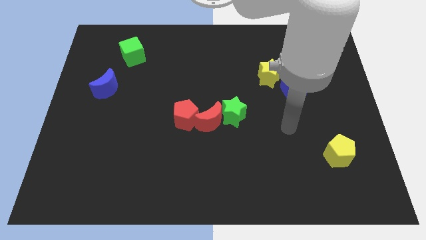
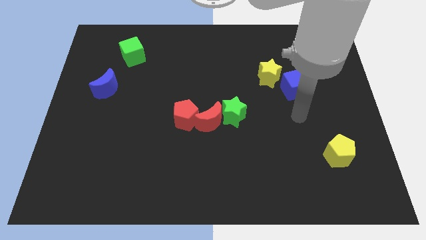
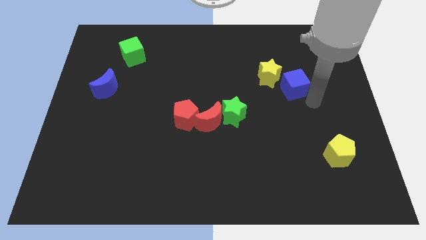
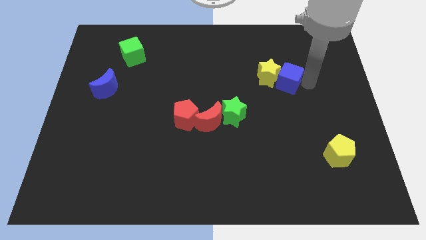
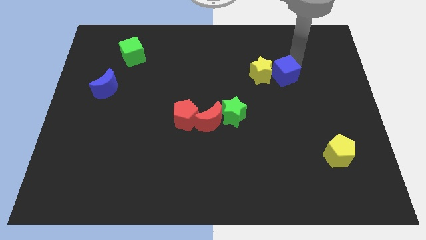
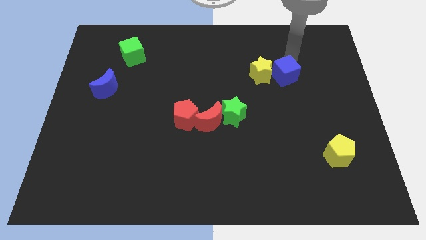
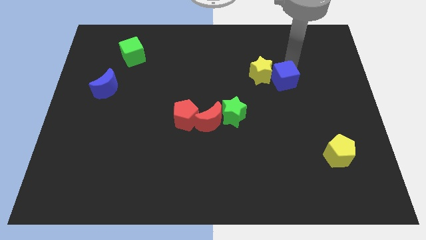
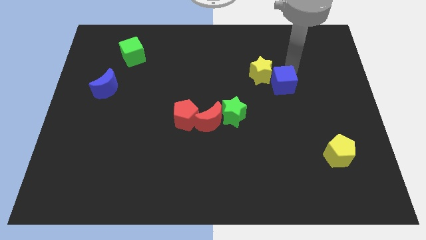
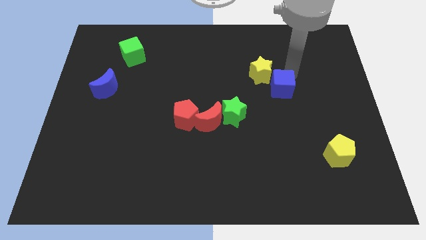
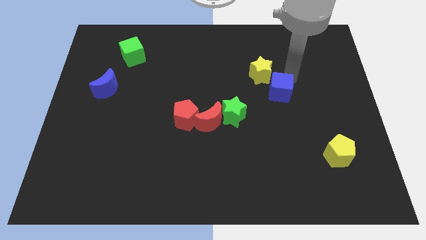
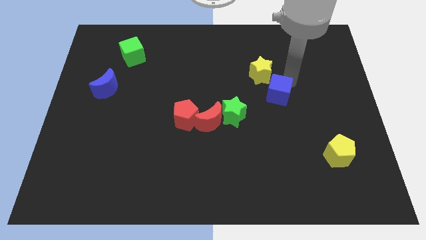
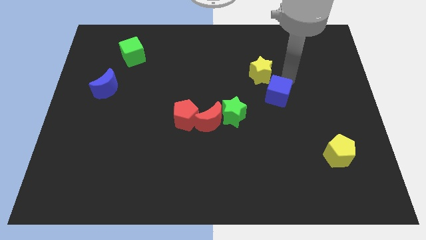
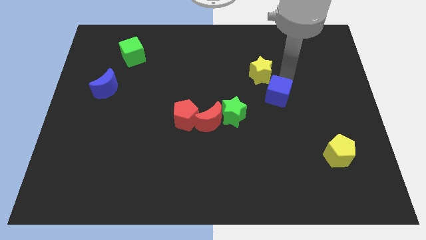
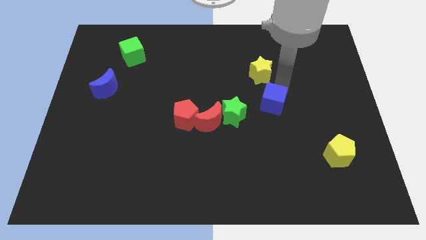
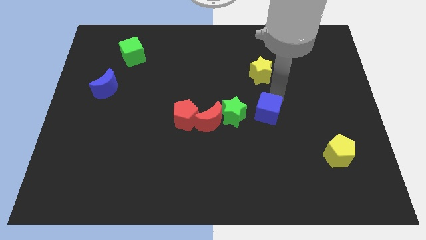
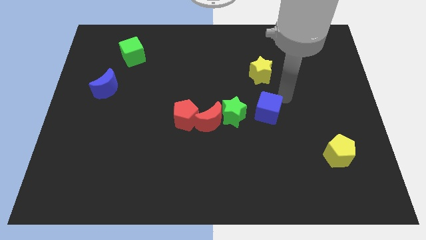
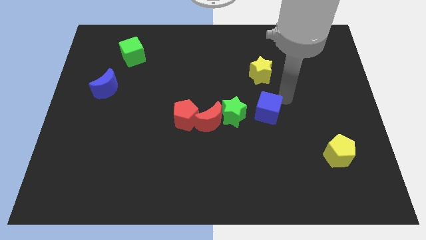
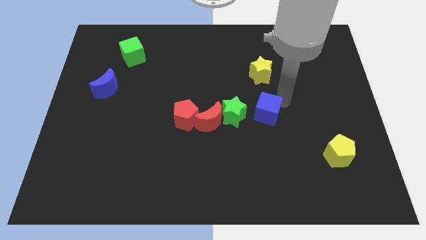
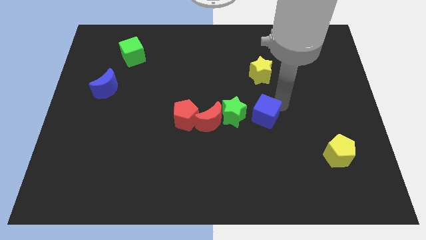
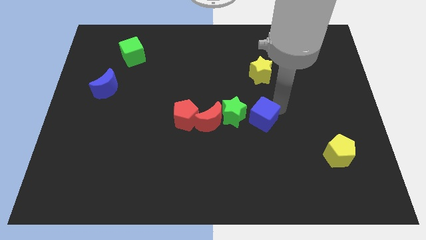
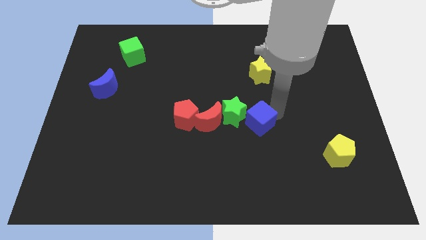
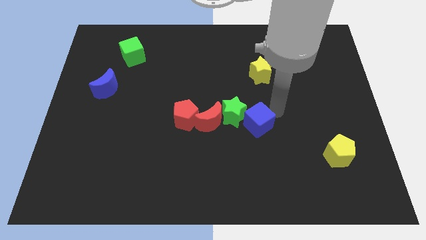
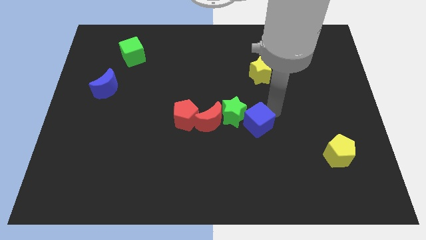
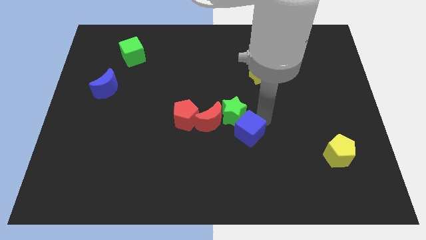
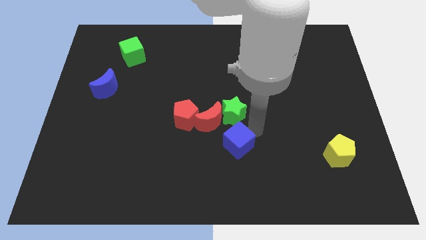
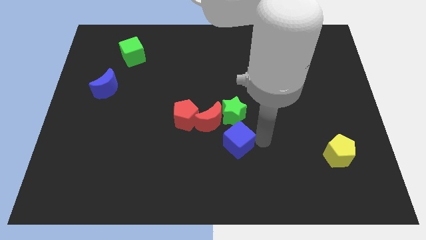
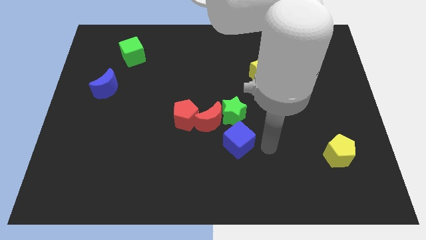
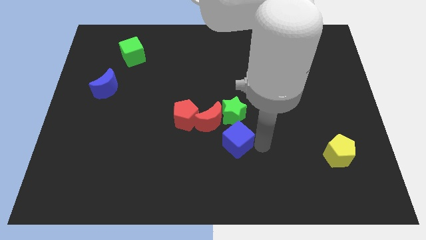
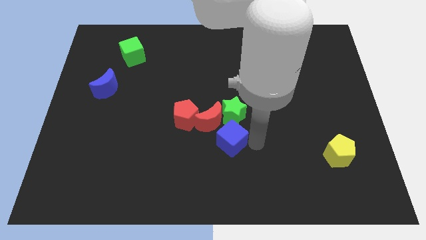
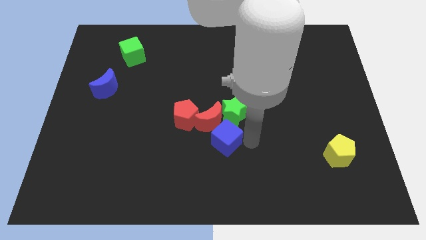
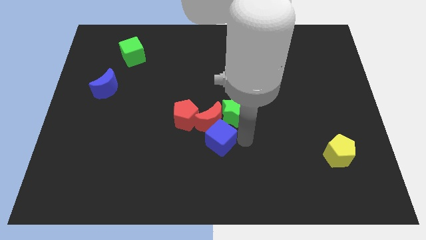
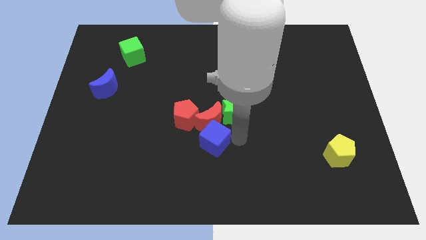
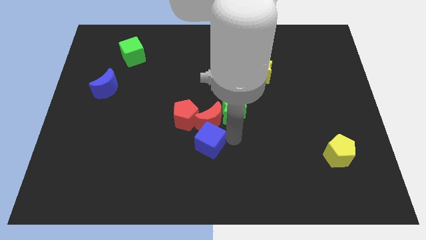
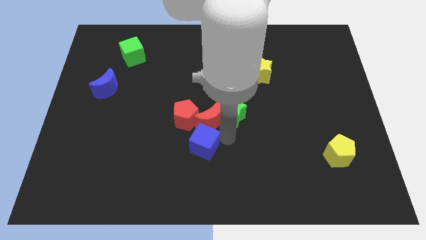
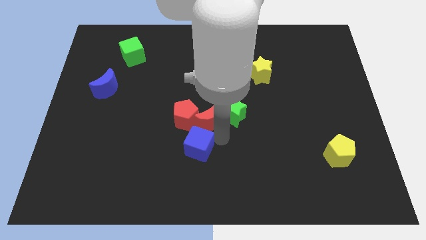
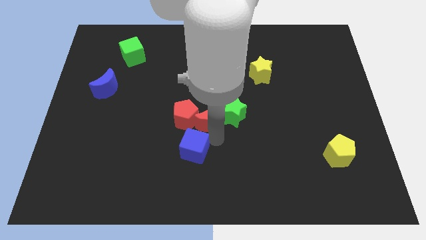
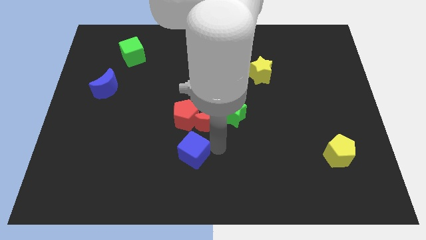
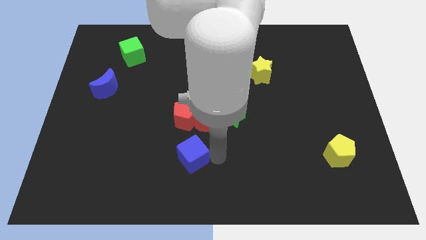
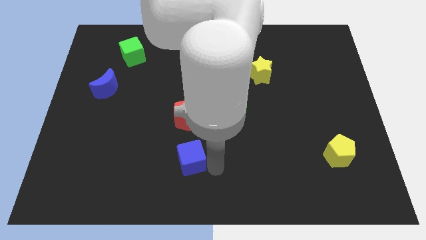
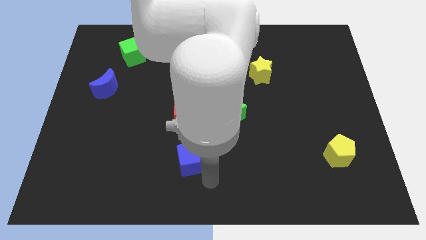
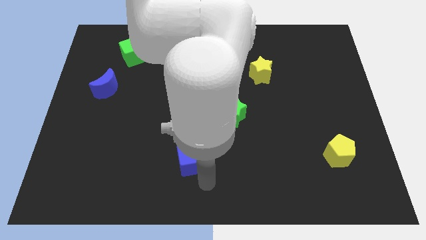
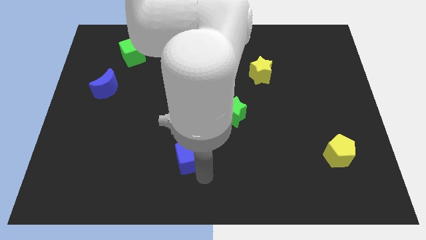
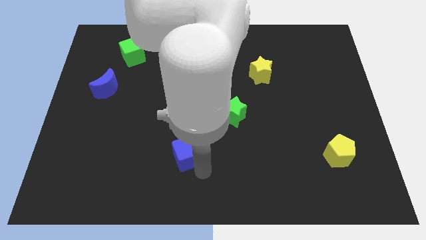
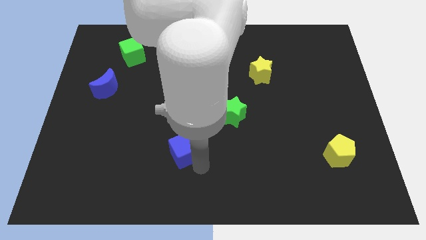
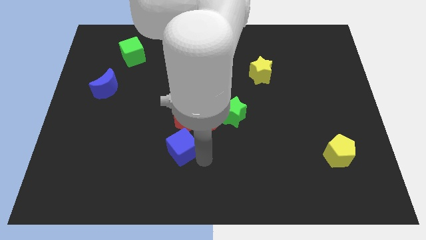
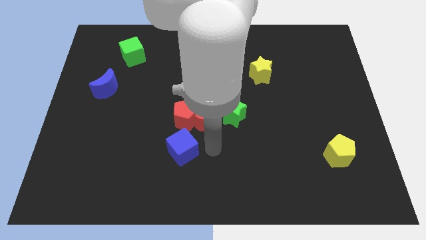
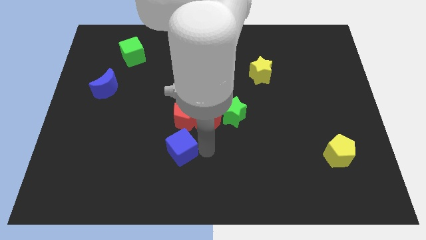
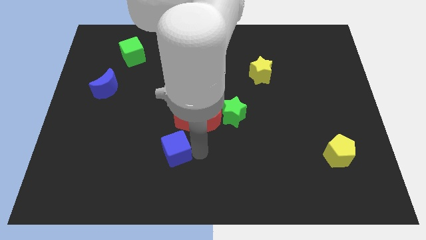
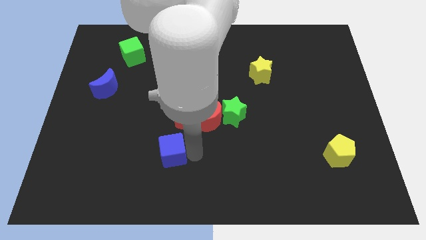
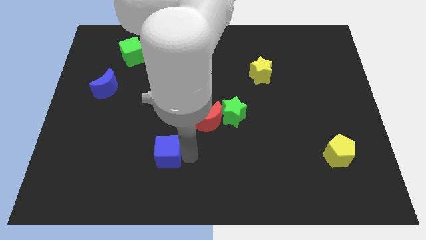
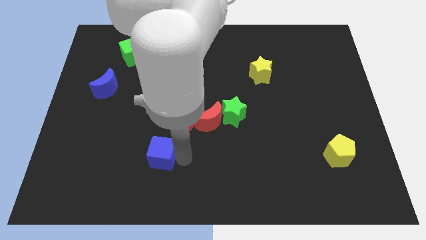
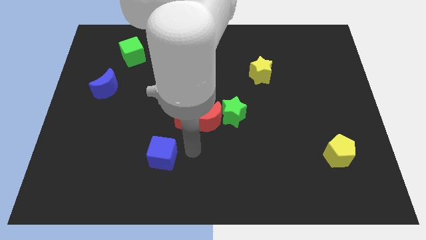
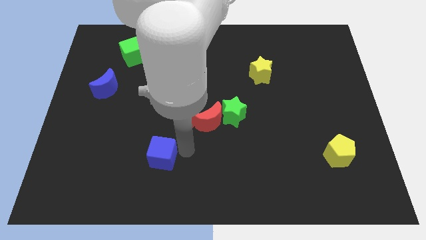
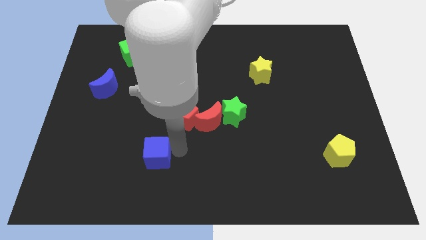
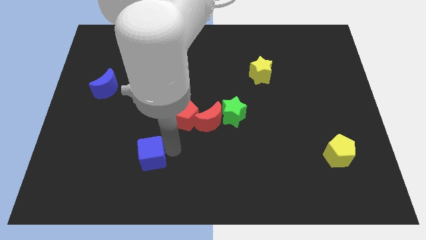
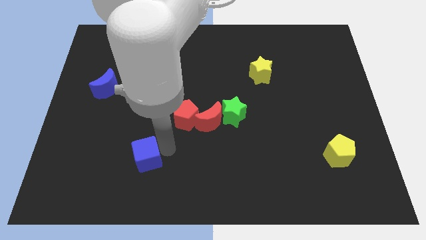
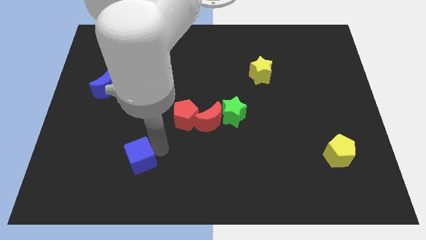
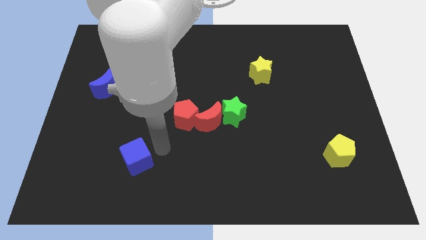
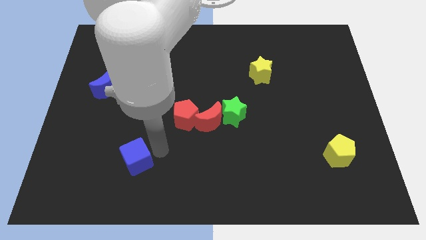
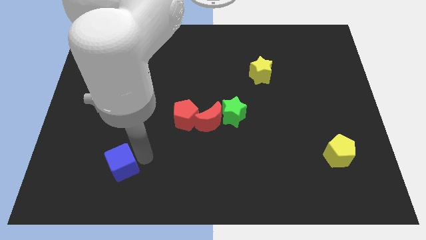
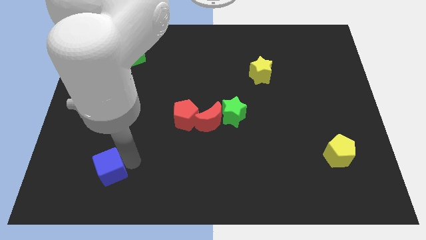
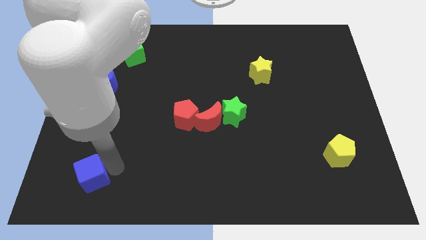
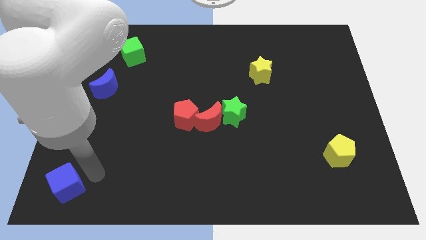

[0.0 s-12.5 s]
push the blue cube to the bottom left corner
